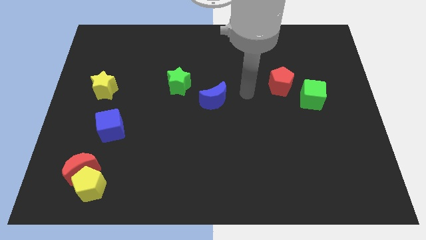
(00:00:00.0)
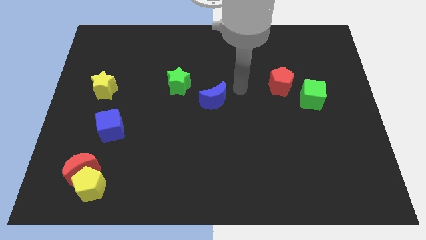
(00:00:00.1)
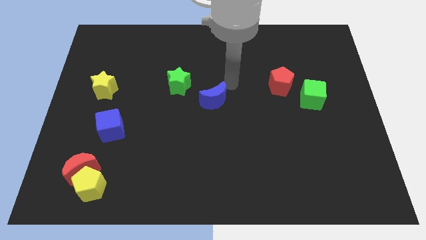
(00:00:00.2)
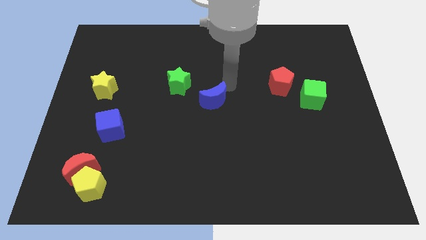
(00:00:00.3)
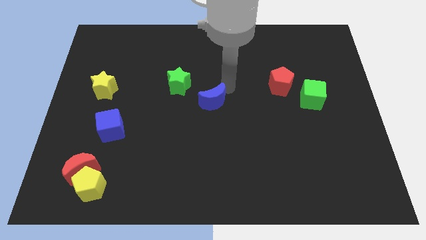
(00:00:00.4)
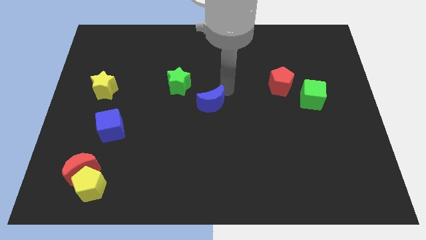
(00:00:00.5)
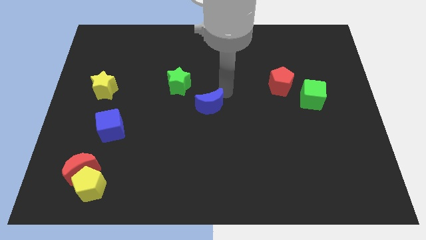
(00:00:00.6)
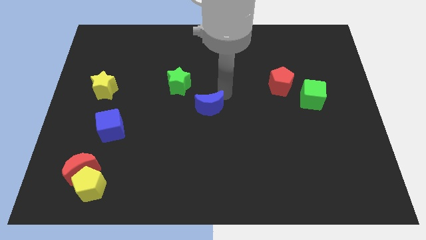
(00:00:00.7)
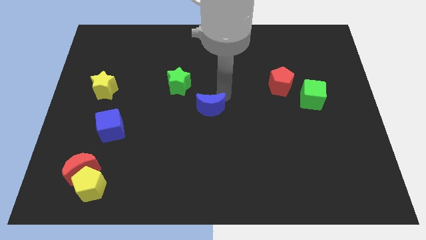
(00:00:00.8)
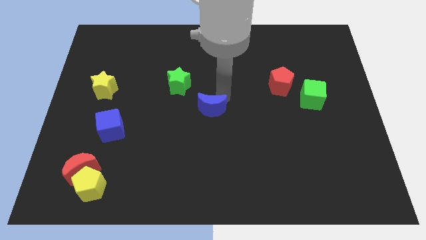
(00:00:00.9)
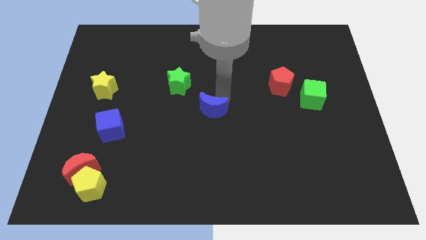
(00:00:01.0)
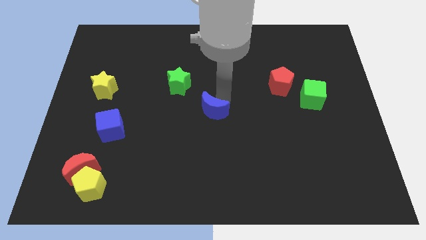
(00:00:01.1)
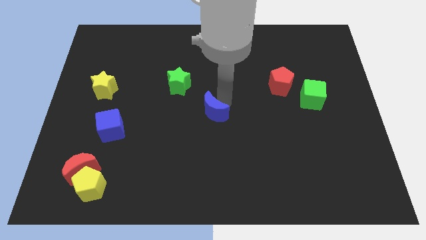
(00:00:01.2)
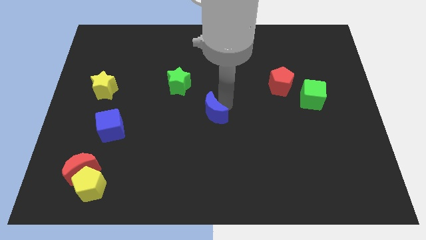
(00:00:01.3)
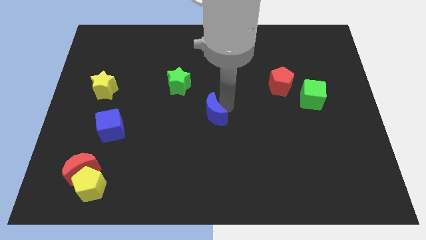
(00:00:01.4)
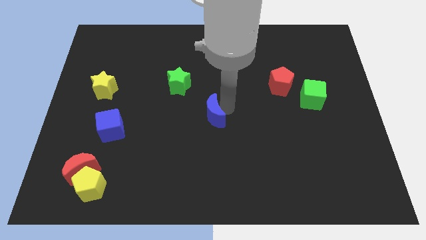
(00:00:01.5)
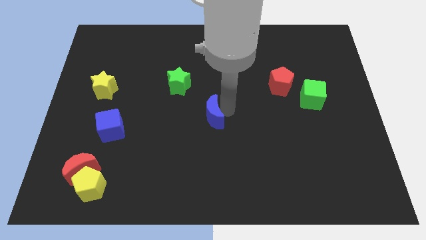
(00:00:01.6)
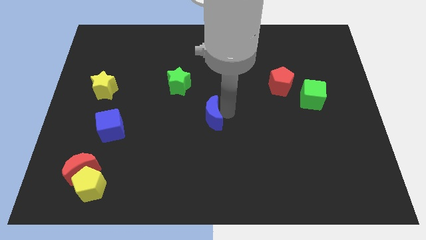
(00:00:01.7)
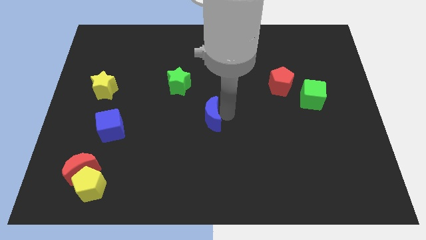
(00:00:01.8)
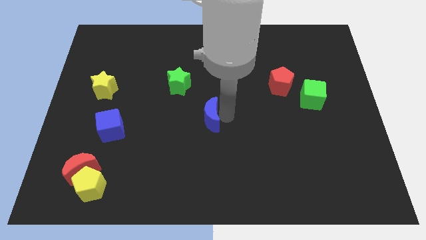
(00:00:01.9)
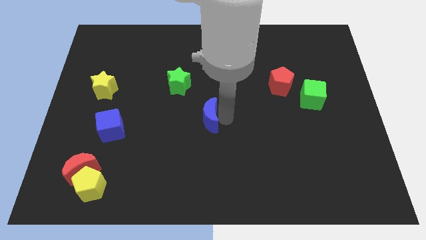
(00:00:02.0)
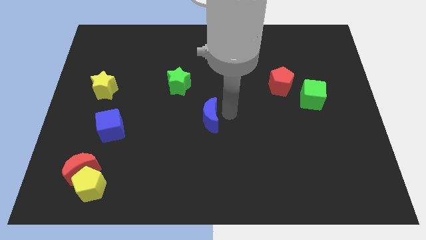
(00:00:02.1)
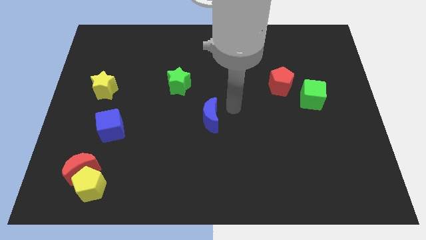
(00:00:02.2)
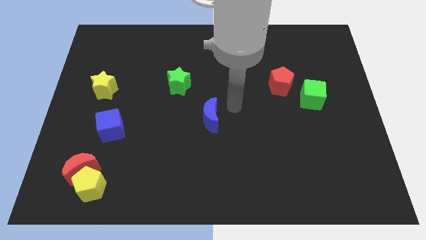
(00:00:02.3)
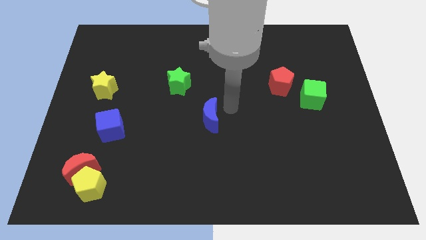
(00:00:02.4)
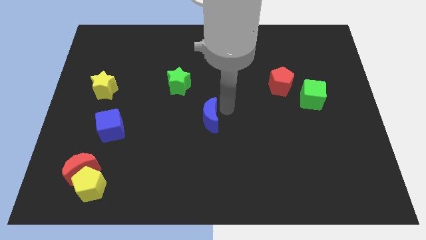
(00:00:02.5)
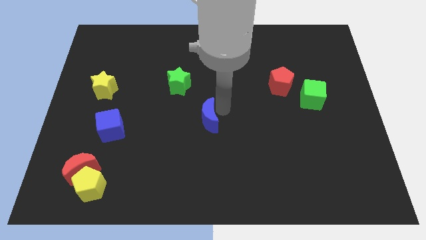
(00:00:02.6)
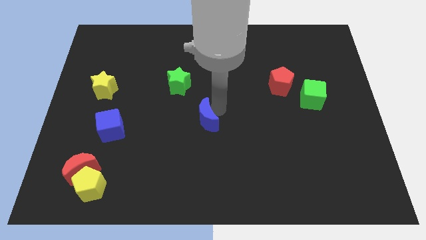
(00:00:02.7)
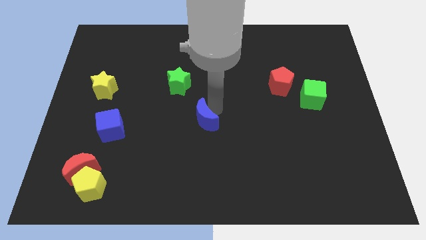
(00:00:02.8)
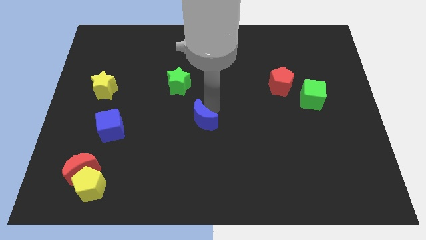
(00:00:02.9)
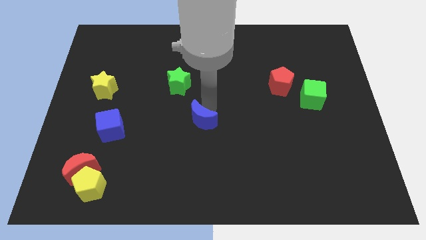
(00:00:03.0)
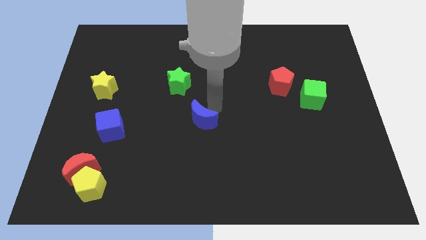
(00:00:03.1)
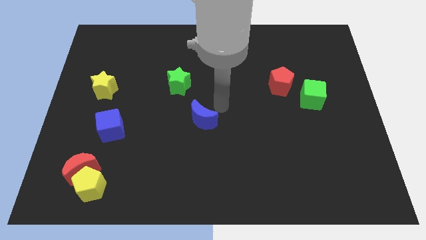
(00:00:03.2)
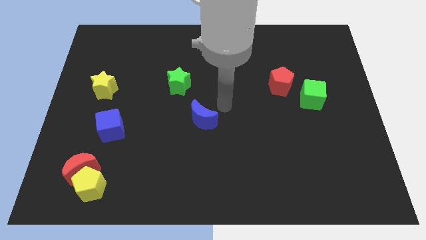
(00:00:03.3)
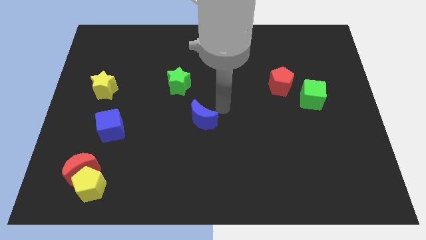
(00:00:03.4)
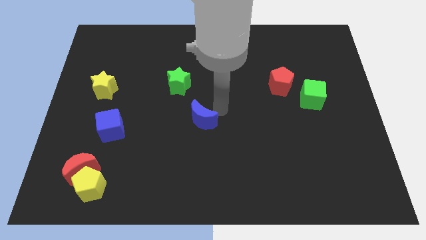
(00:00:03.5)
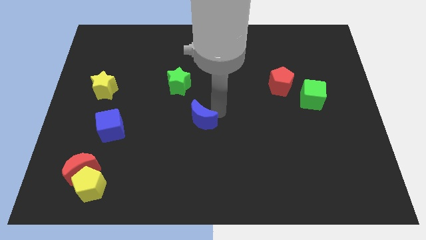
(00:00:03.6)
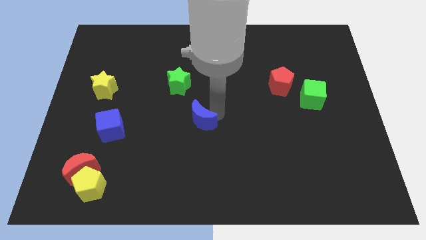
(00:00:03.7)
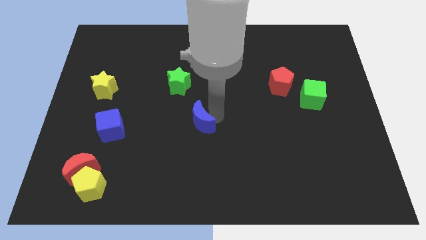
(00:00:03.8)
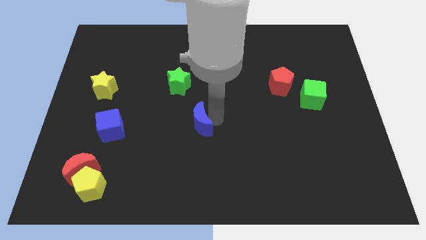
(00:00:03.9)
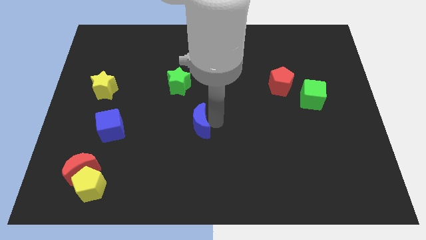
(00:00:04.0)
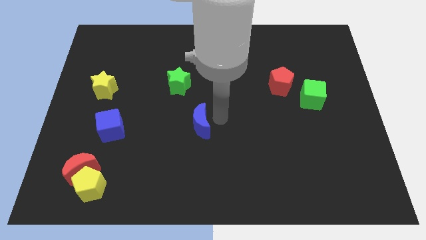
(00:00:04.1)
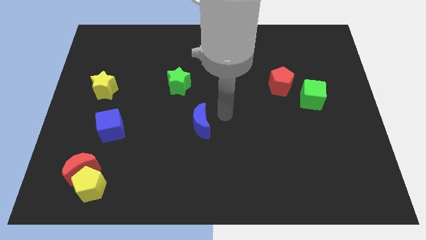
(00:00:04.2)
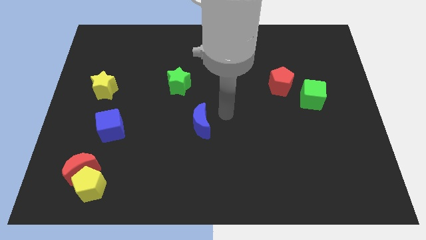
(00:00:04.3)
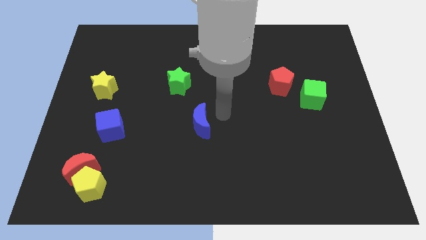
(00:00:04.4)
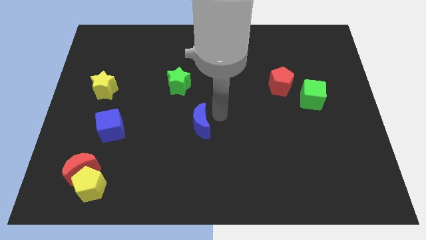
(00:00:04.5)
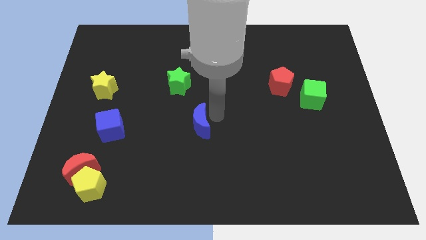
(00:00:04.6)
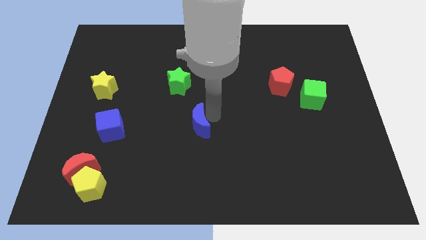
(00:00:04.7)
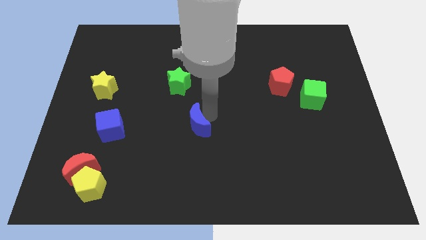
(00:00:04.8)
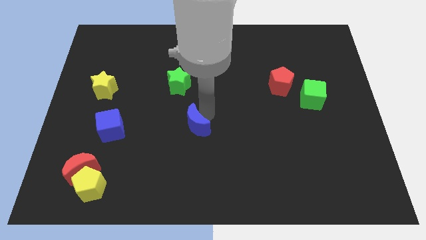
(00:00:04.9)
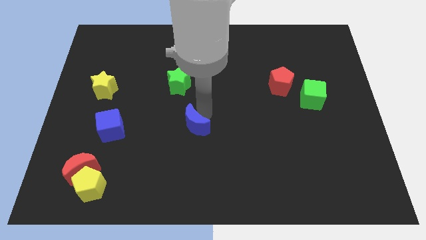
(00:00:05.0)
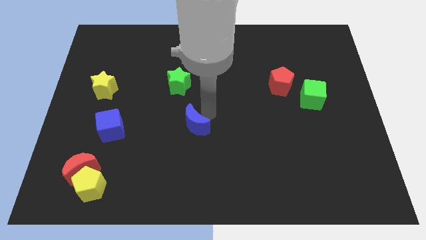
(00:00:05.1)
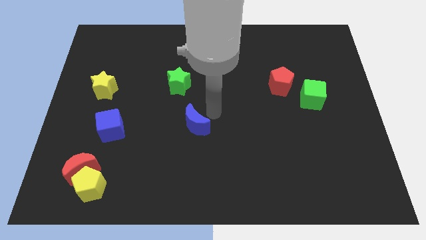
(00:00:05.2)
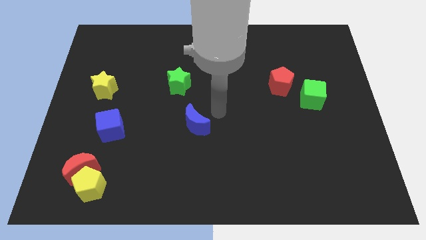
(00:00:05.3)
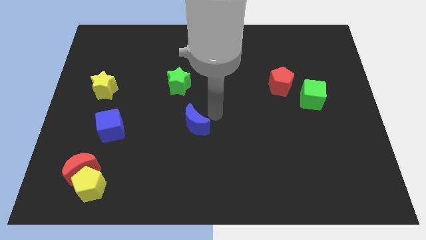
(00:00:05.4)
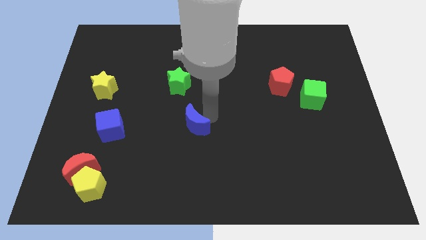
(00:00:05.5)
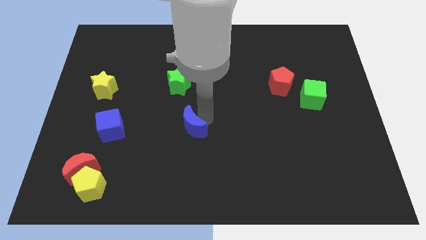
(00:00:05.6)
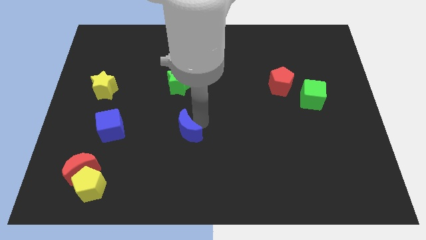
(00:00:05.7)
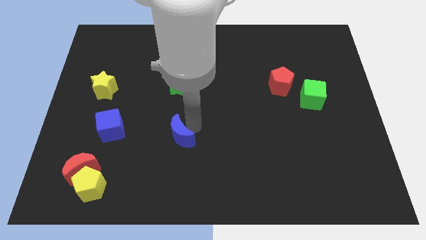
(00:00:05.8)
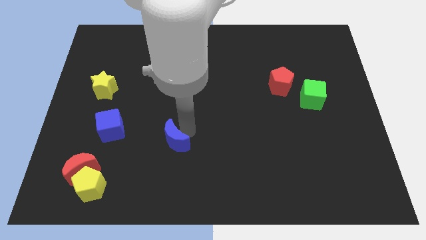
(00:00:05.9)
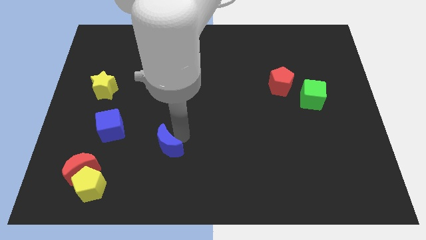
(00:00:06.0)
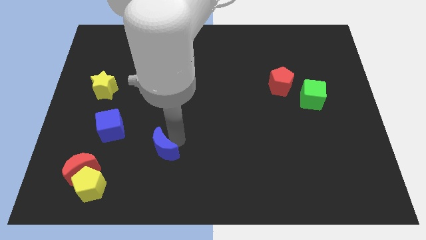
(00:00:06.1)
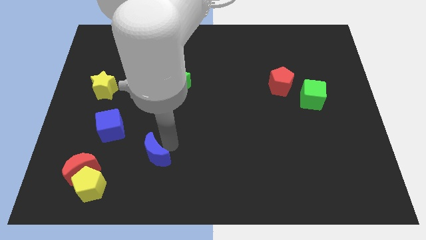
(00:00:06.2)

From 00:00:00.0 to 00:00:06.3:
slide the blue moon just right of the red moon
